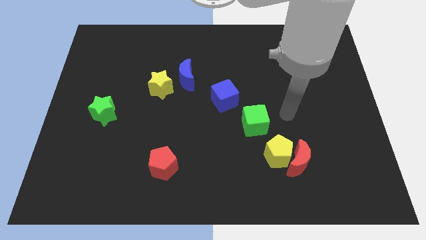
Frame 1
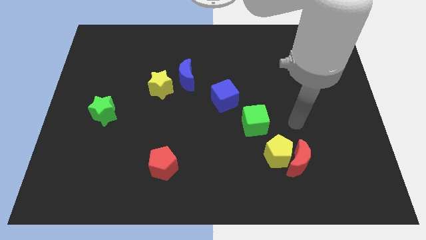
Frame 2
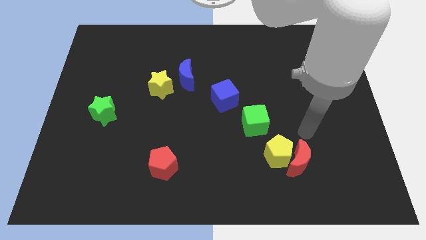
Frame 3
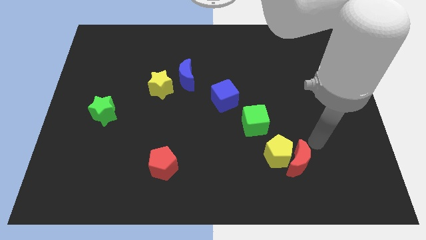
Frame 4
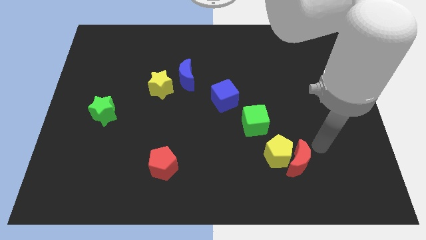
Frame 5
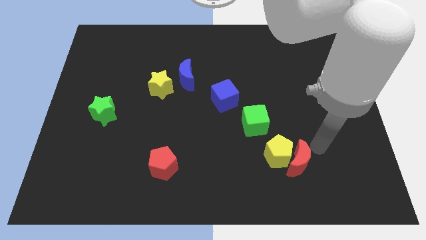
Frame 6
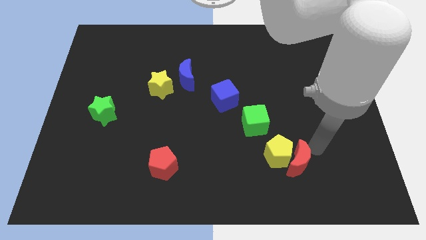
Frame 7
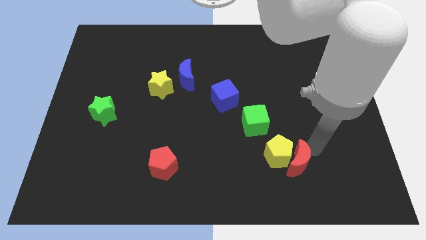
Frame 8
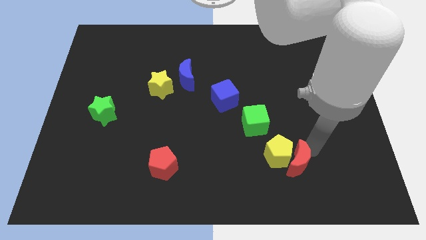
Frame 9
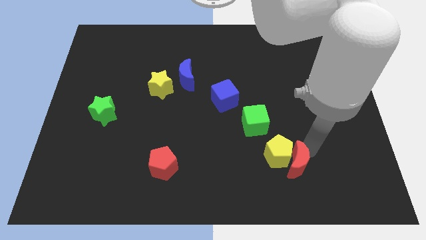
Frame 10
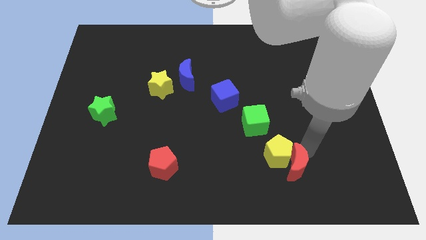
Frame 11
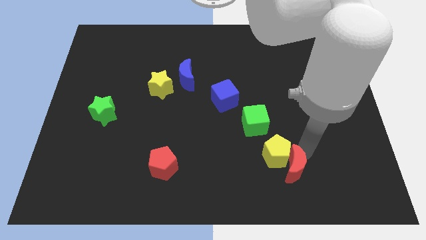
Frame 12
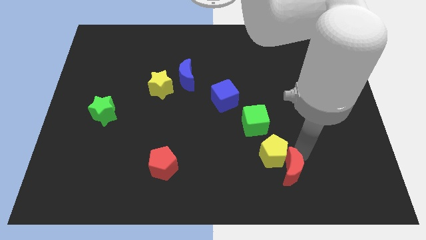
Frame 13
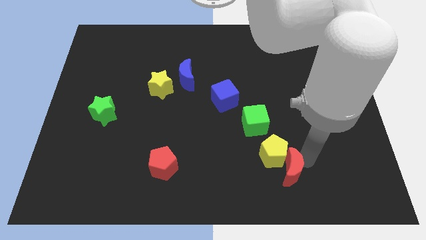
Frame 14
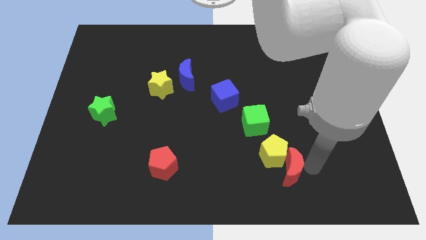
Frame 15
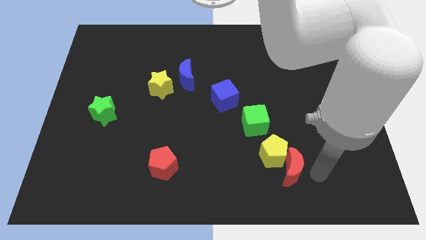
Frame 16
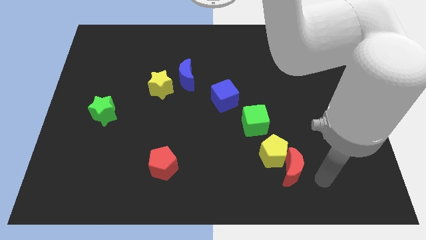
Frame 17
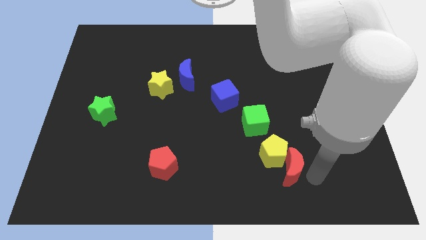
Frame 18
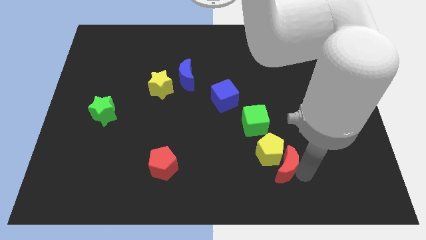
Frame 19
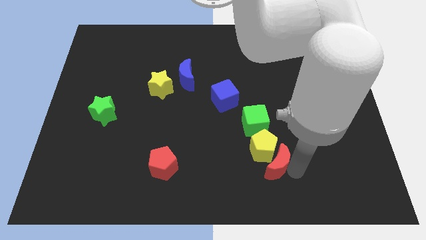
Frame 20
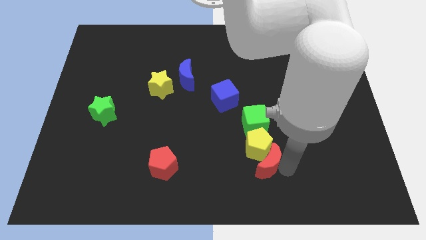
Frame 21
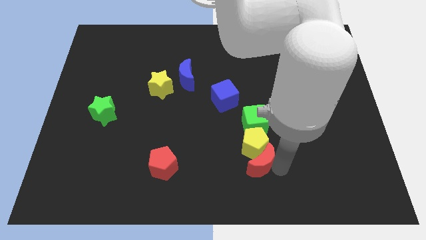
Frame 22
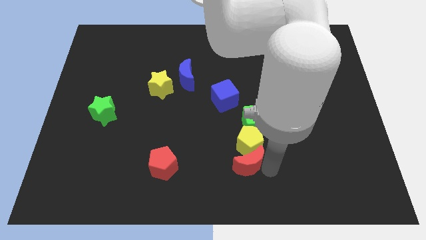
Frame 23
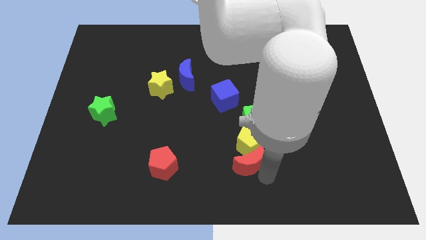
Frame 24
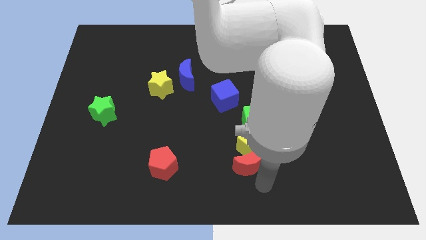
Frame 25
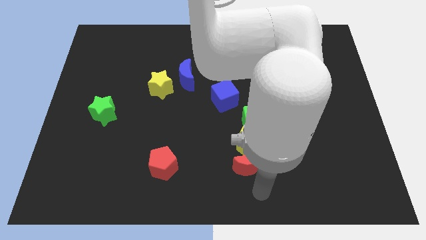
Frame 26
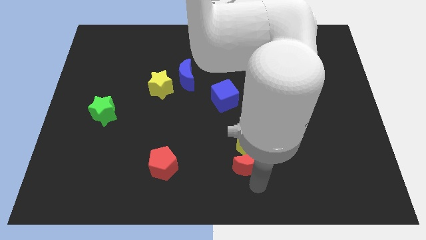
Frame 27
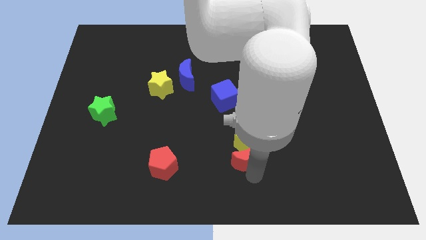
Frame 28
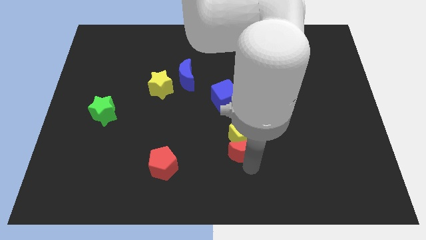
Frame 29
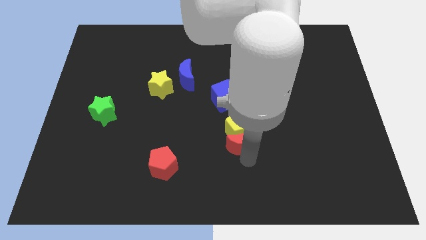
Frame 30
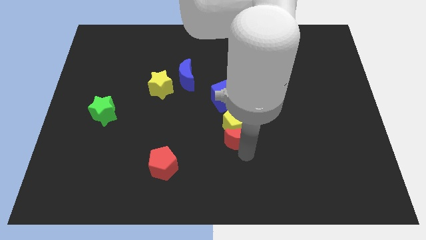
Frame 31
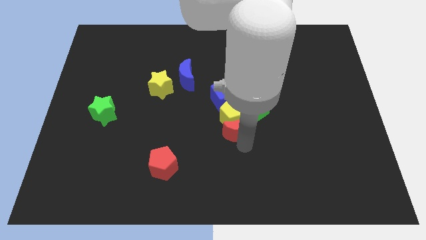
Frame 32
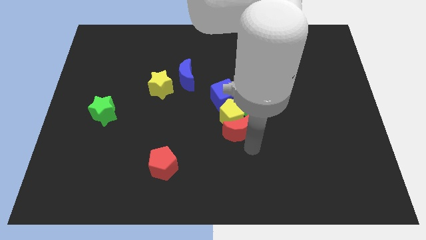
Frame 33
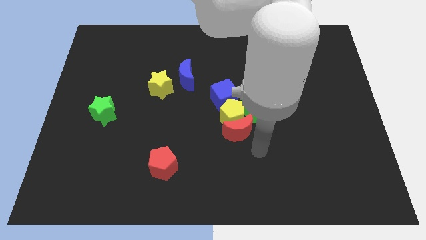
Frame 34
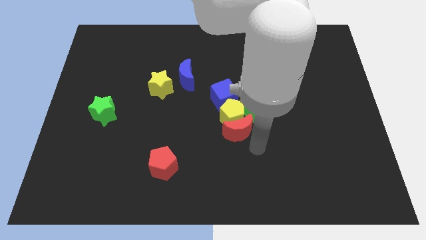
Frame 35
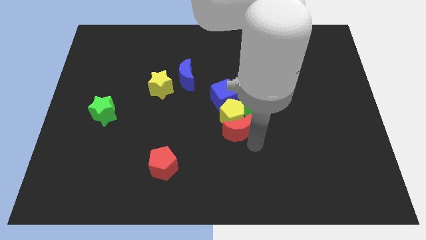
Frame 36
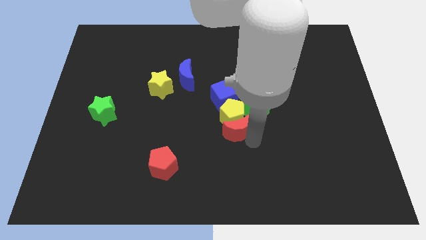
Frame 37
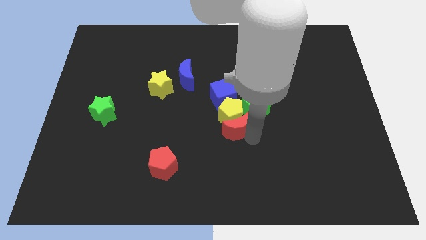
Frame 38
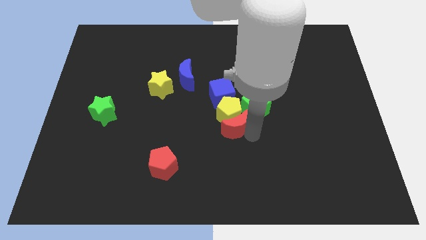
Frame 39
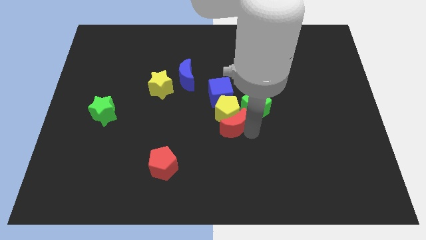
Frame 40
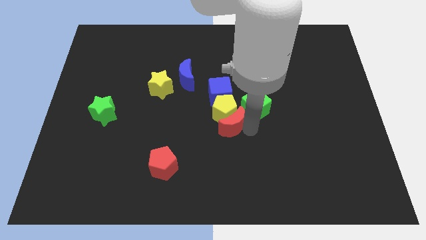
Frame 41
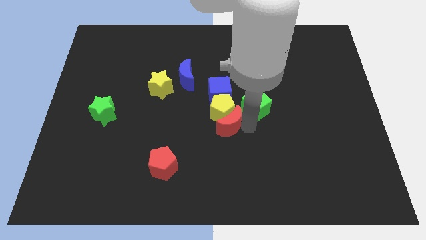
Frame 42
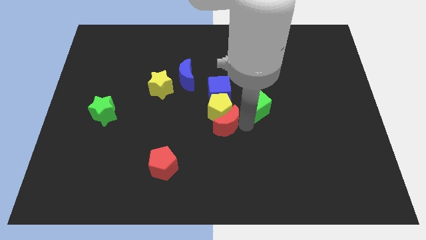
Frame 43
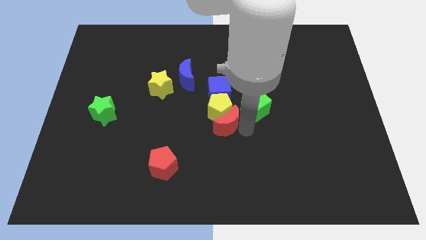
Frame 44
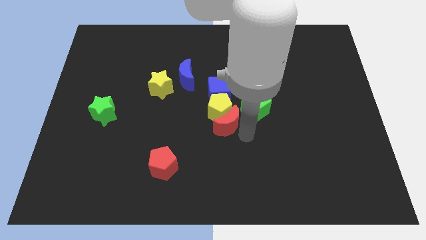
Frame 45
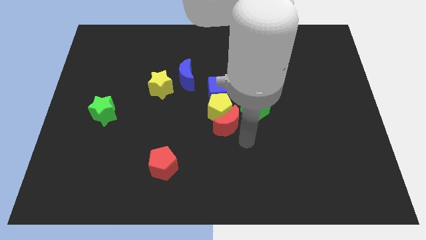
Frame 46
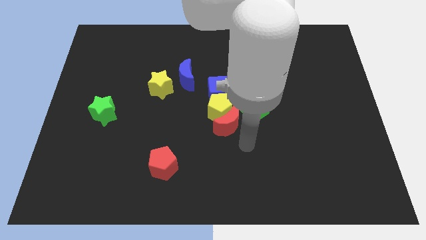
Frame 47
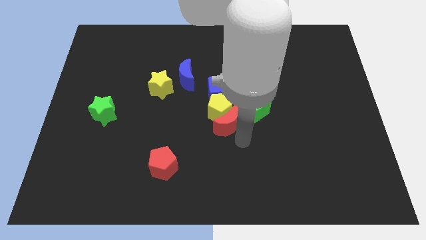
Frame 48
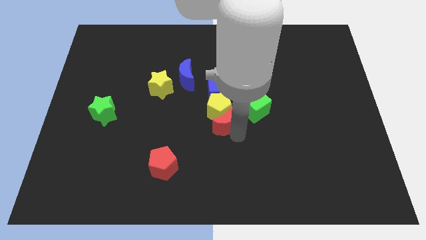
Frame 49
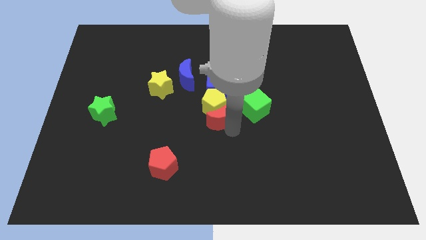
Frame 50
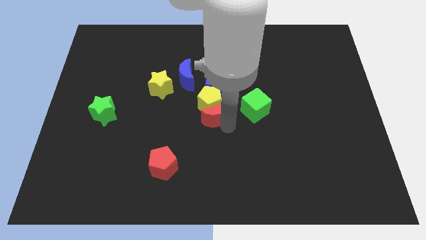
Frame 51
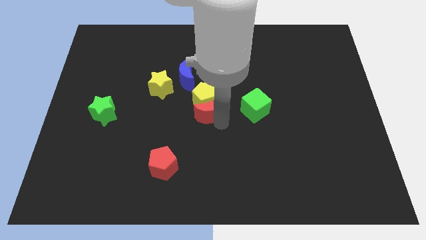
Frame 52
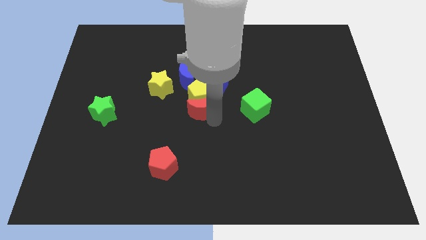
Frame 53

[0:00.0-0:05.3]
put the red moon diagonally down and to the right of the blue moon

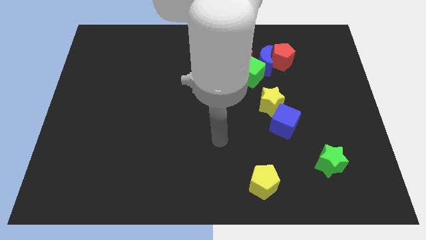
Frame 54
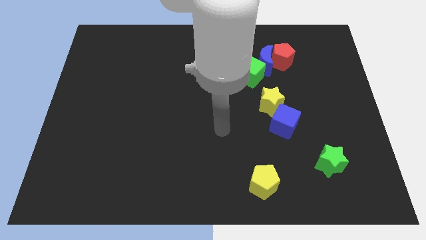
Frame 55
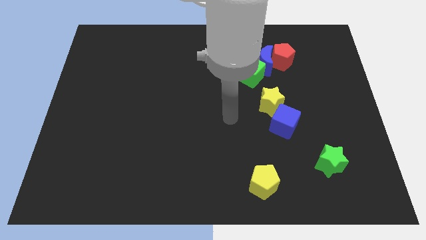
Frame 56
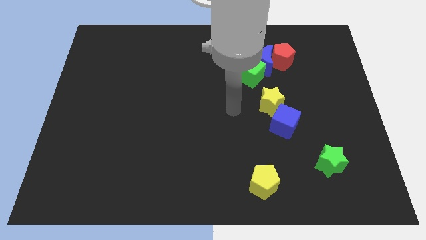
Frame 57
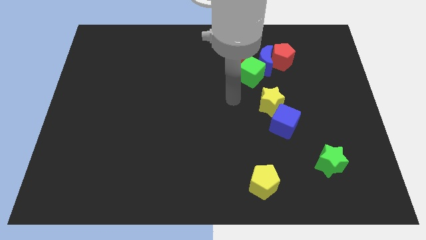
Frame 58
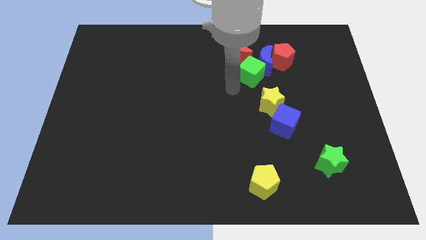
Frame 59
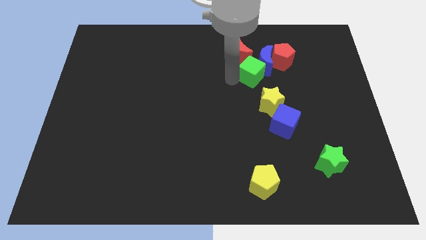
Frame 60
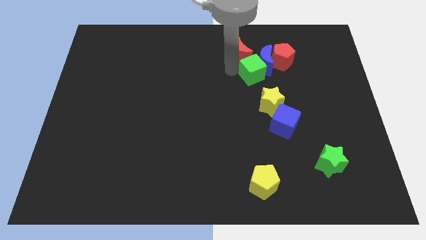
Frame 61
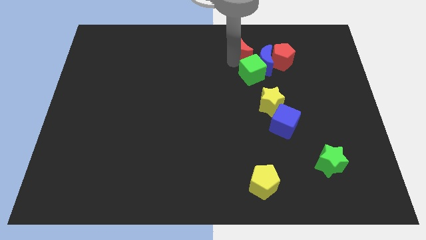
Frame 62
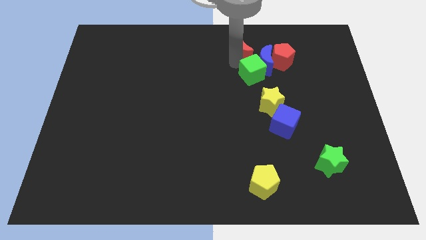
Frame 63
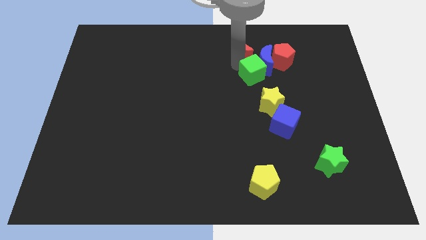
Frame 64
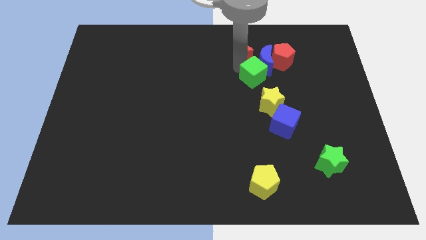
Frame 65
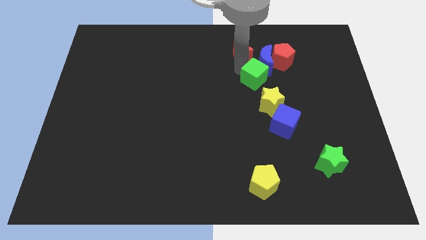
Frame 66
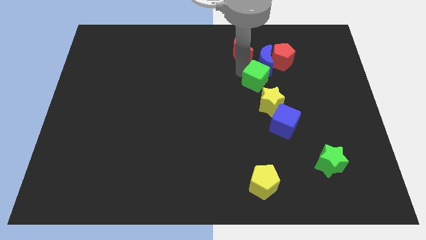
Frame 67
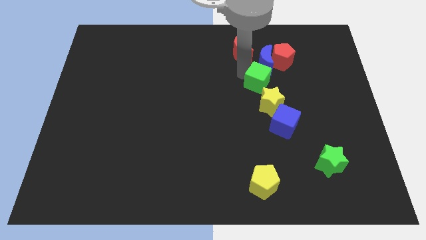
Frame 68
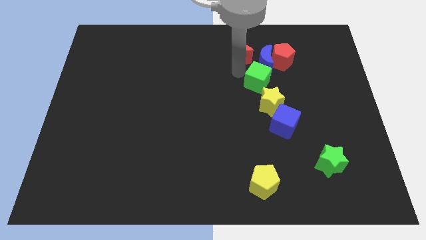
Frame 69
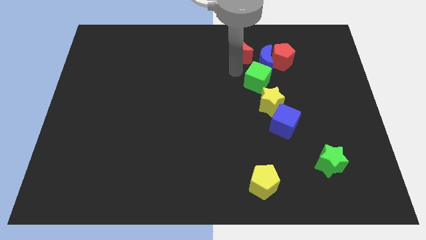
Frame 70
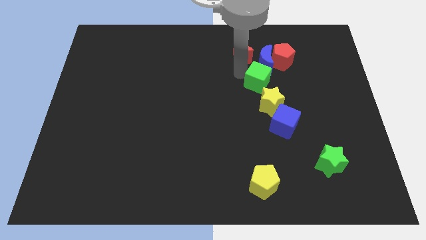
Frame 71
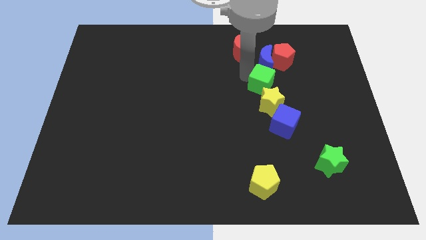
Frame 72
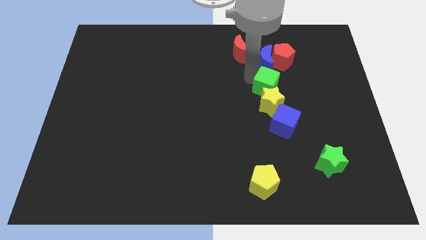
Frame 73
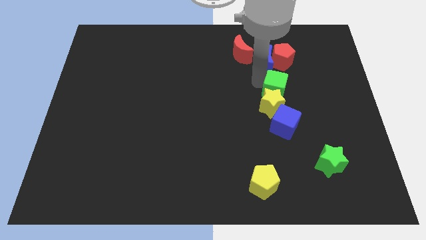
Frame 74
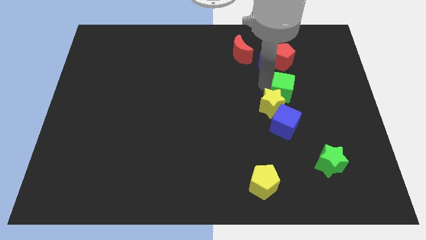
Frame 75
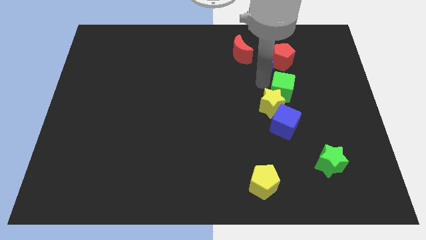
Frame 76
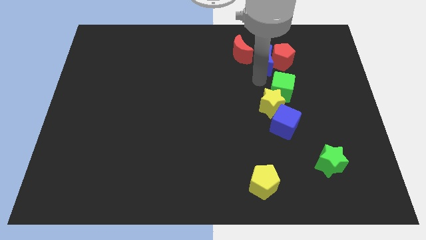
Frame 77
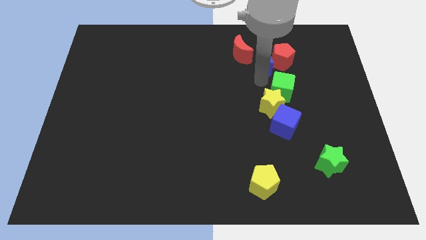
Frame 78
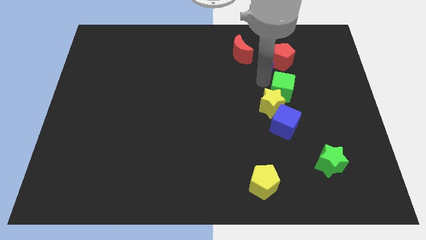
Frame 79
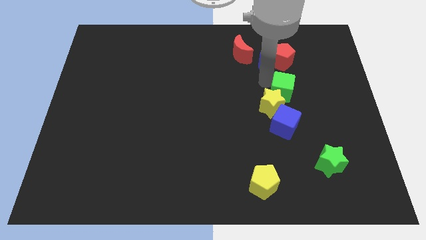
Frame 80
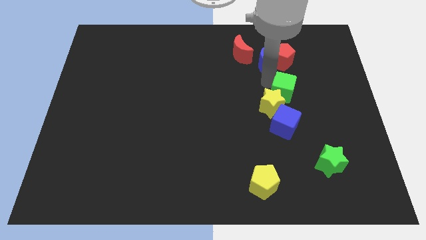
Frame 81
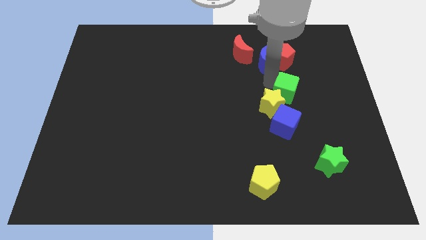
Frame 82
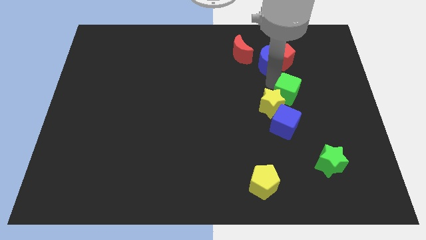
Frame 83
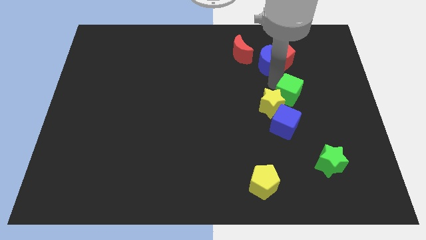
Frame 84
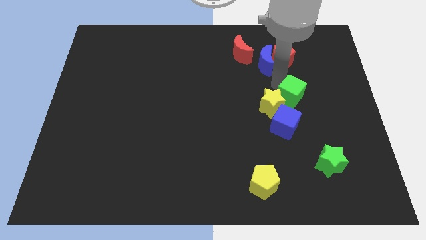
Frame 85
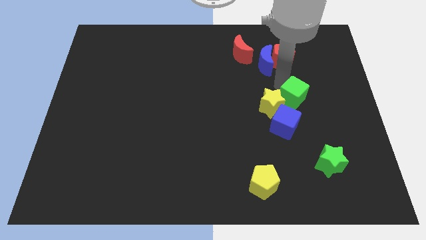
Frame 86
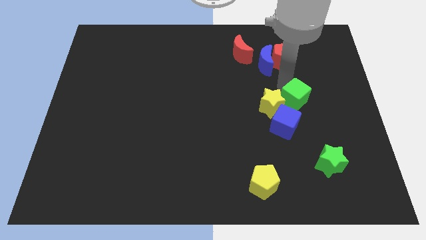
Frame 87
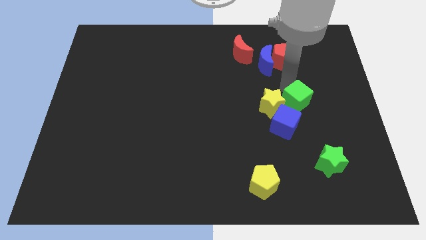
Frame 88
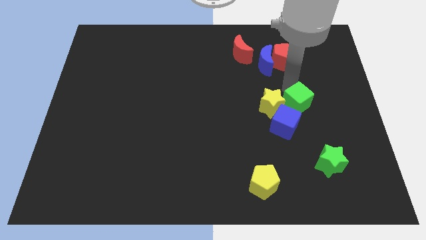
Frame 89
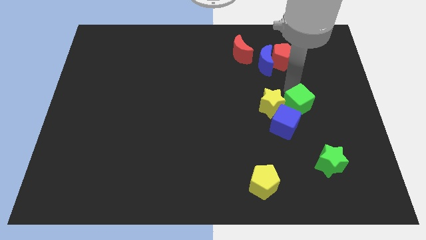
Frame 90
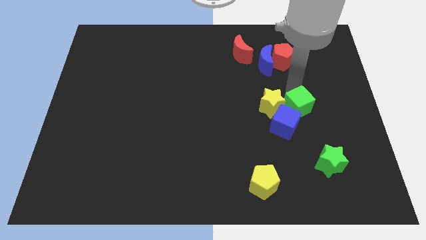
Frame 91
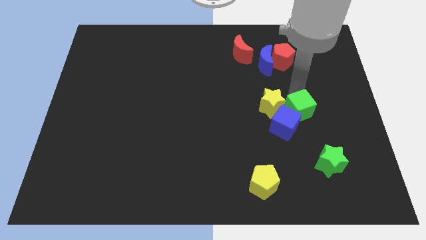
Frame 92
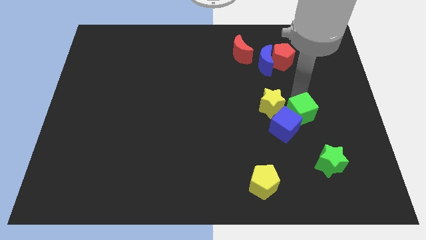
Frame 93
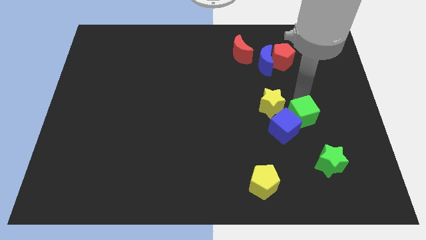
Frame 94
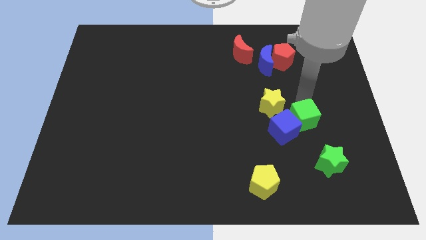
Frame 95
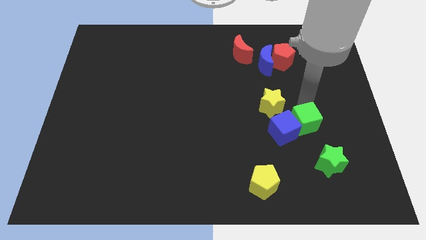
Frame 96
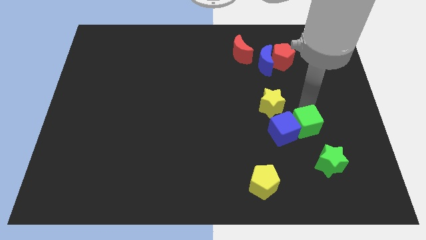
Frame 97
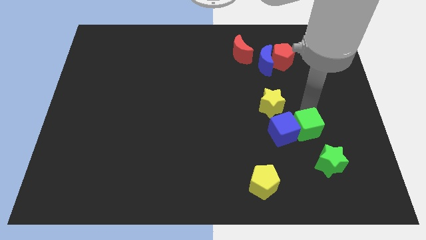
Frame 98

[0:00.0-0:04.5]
move the green cube diagonally down and to the right of the blue cube
